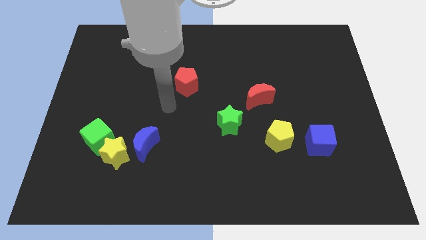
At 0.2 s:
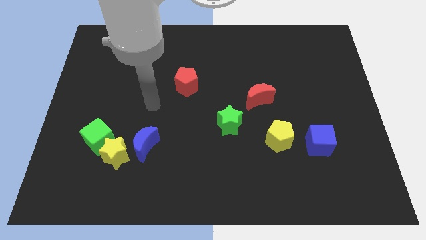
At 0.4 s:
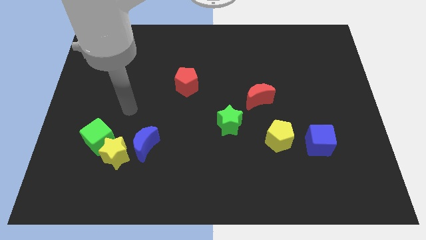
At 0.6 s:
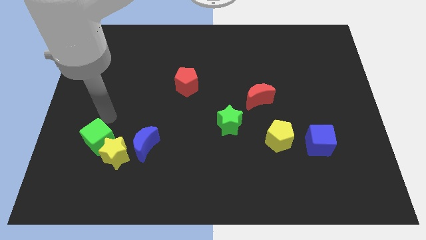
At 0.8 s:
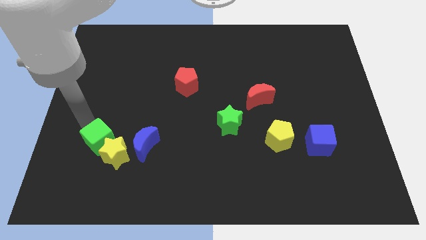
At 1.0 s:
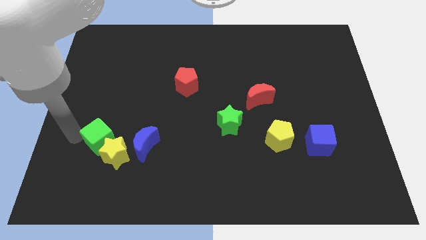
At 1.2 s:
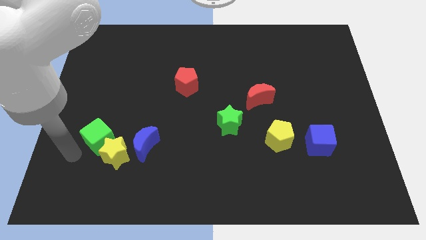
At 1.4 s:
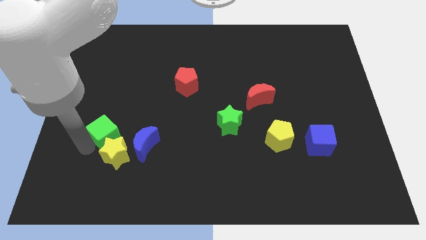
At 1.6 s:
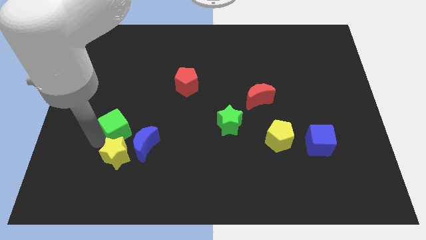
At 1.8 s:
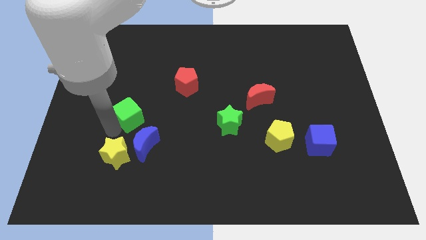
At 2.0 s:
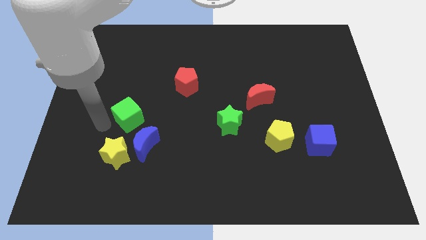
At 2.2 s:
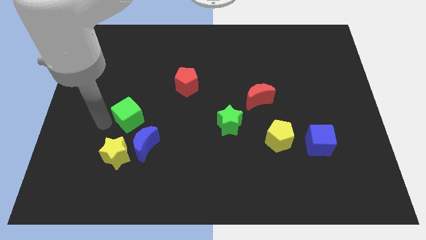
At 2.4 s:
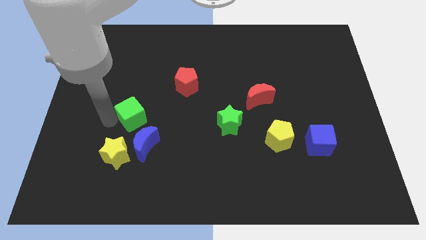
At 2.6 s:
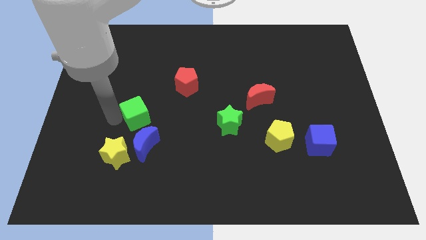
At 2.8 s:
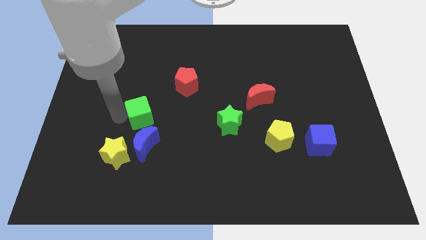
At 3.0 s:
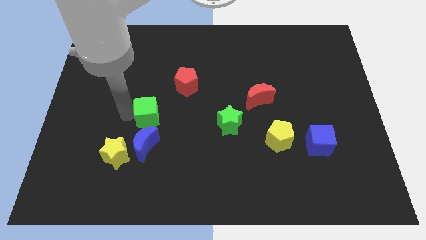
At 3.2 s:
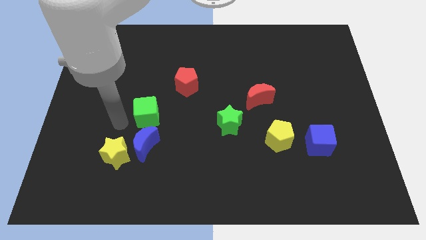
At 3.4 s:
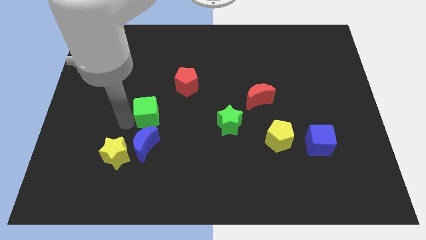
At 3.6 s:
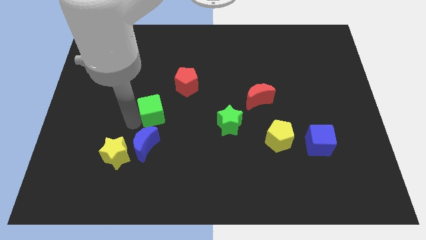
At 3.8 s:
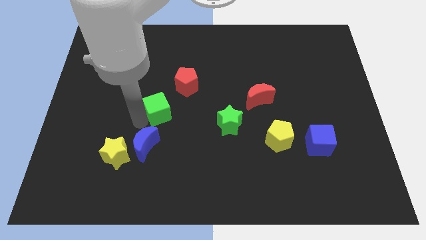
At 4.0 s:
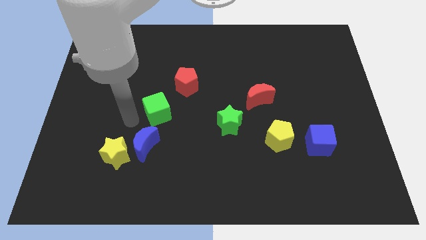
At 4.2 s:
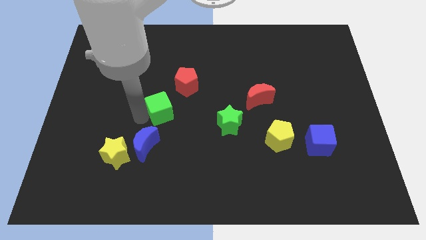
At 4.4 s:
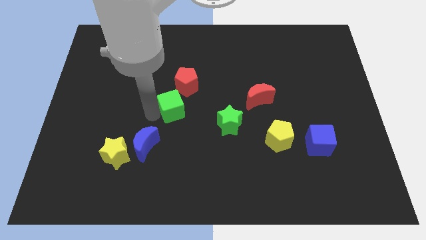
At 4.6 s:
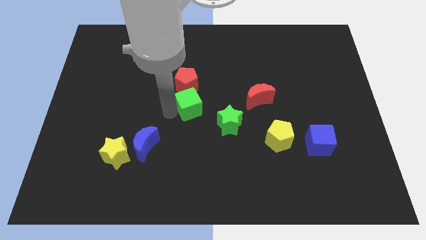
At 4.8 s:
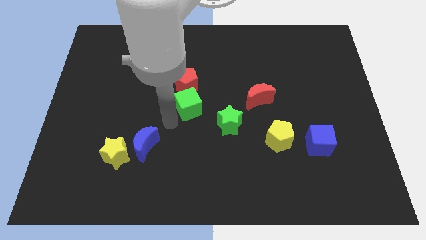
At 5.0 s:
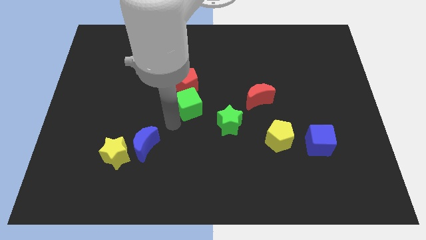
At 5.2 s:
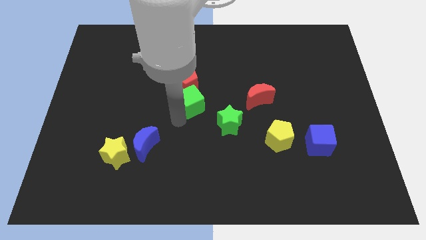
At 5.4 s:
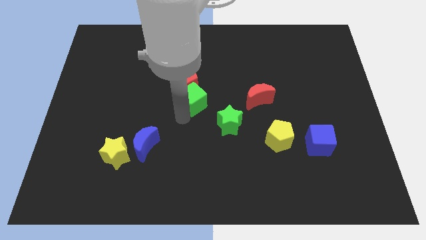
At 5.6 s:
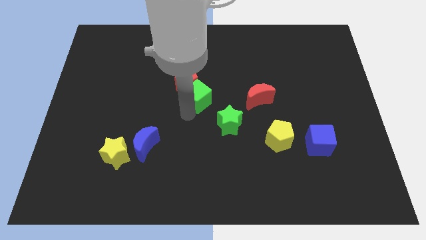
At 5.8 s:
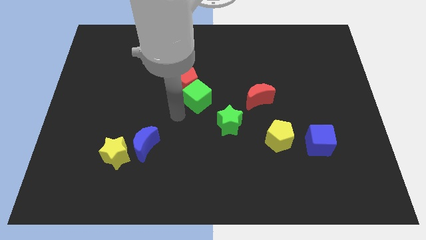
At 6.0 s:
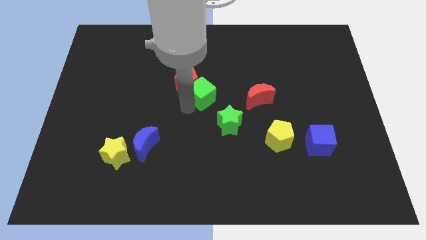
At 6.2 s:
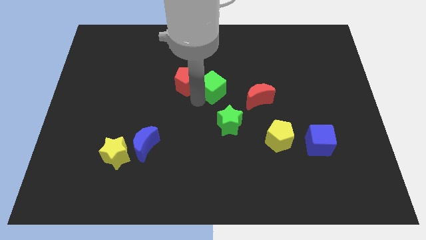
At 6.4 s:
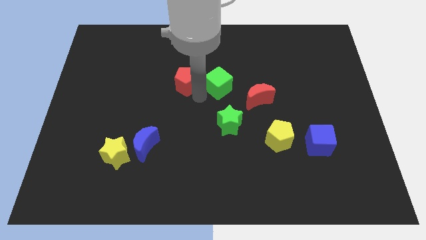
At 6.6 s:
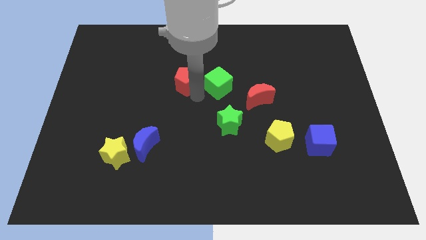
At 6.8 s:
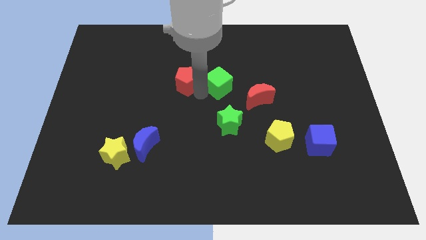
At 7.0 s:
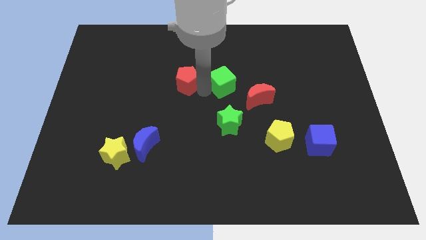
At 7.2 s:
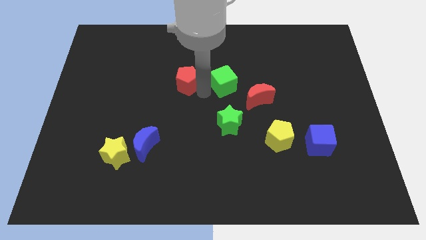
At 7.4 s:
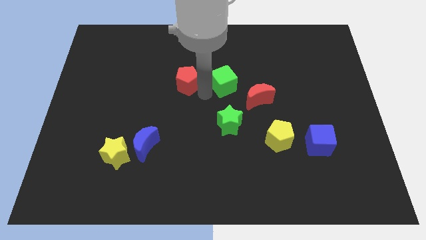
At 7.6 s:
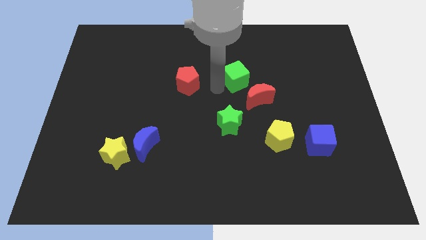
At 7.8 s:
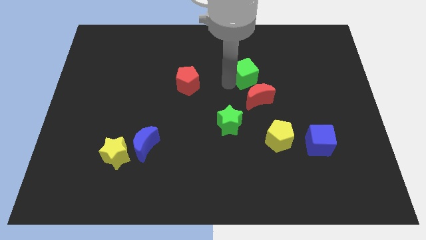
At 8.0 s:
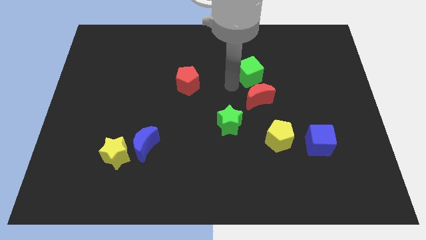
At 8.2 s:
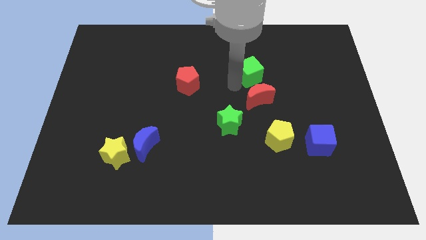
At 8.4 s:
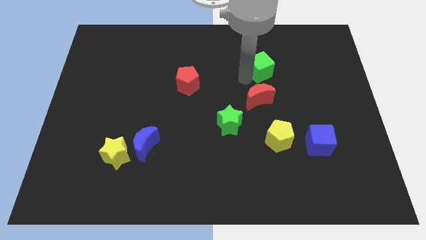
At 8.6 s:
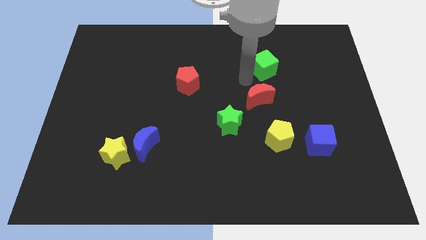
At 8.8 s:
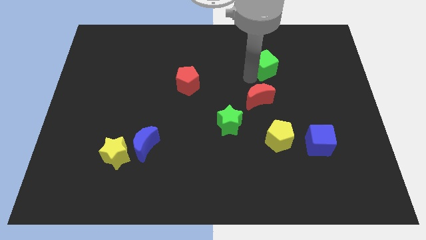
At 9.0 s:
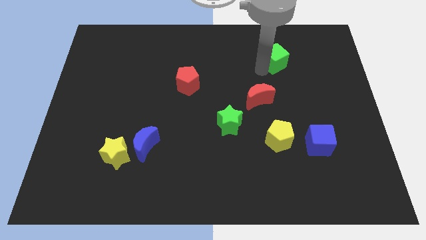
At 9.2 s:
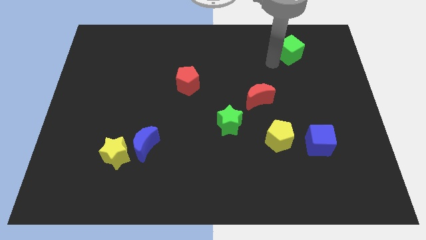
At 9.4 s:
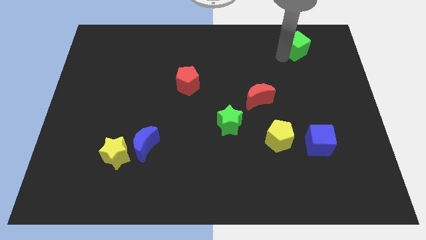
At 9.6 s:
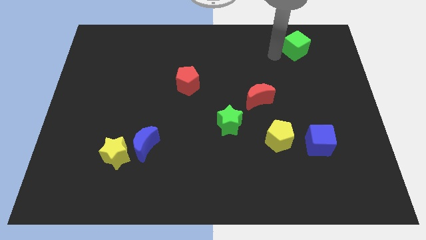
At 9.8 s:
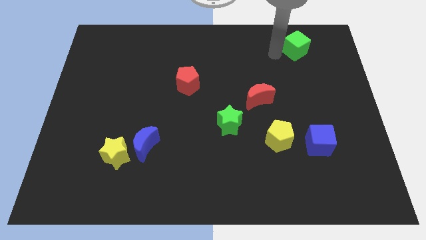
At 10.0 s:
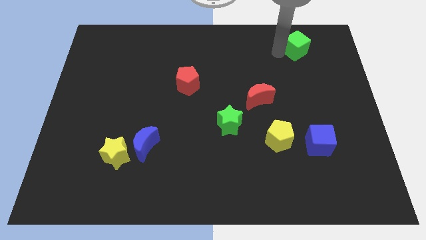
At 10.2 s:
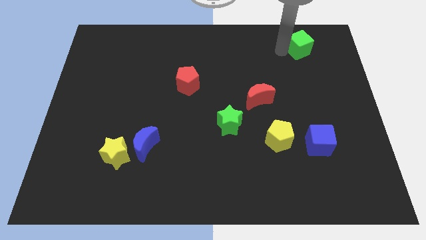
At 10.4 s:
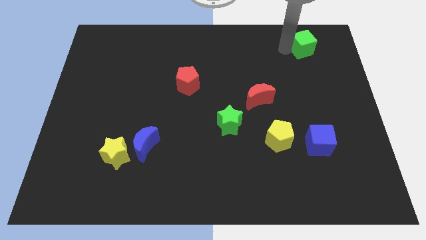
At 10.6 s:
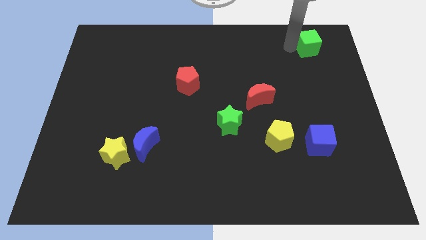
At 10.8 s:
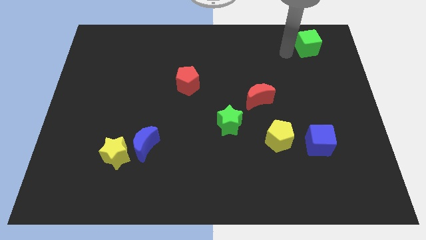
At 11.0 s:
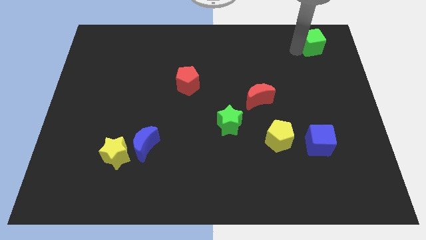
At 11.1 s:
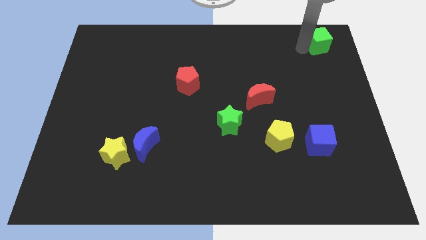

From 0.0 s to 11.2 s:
slide the green cube to the upper right corner

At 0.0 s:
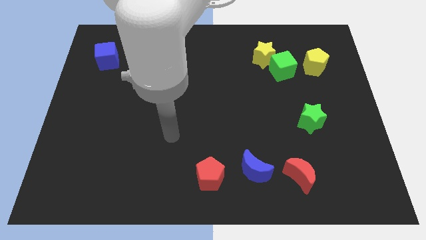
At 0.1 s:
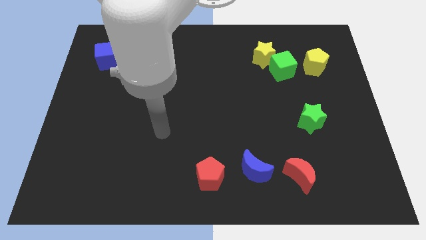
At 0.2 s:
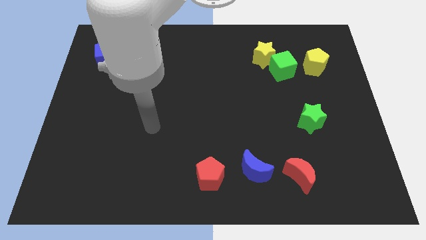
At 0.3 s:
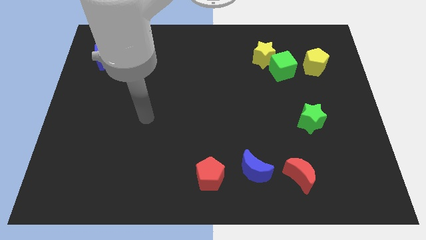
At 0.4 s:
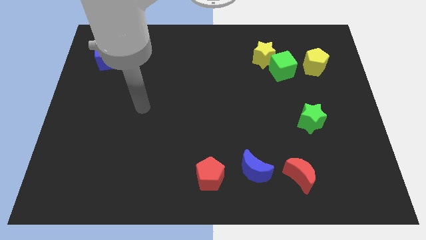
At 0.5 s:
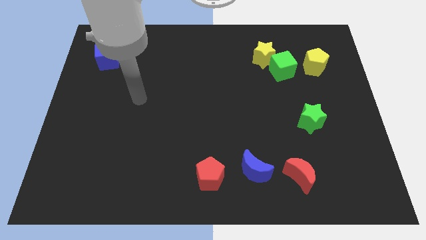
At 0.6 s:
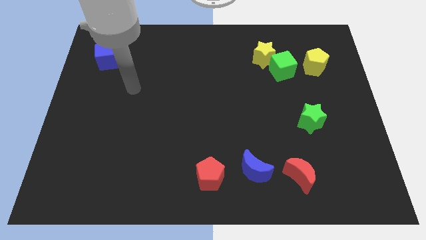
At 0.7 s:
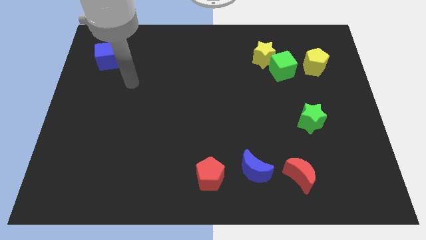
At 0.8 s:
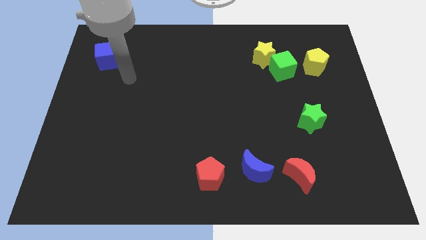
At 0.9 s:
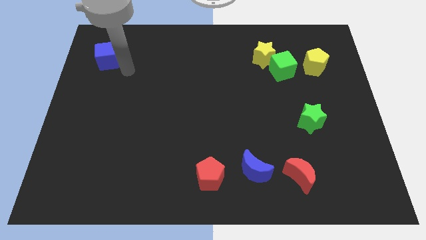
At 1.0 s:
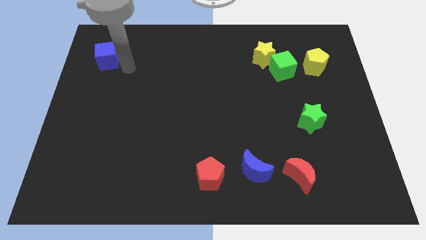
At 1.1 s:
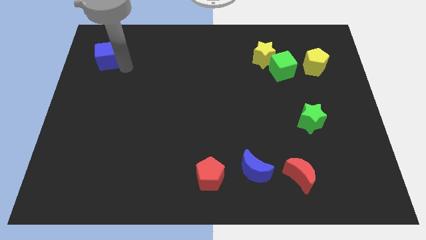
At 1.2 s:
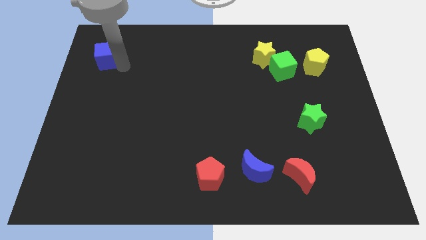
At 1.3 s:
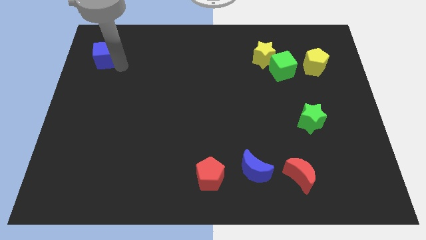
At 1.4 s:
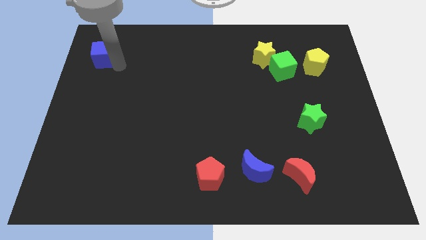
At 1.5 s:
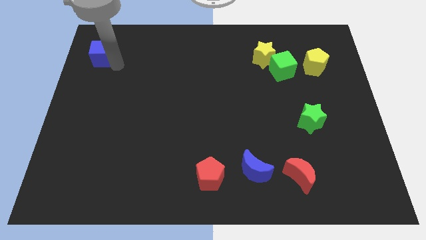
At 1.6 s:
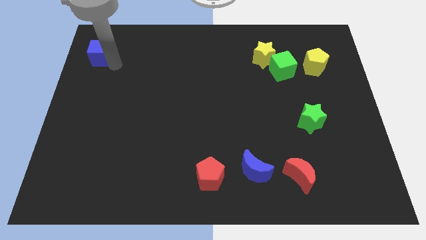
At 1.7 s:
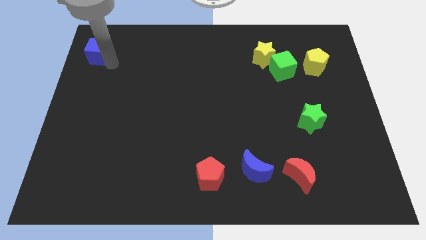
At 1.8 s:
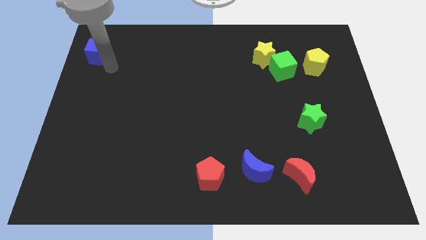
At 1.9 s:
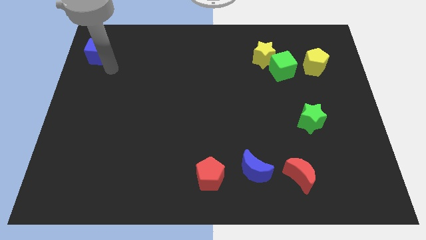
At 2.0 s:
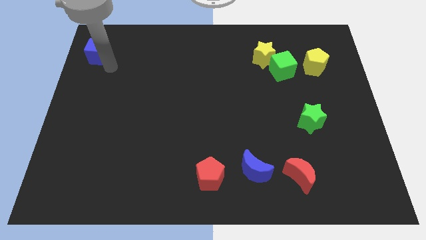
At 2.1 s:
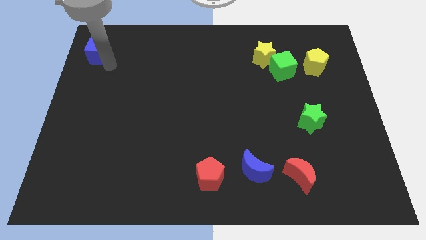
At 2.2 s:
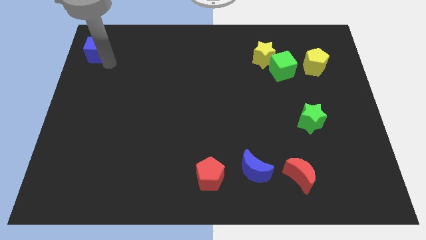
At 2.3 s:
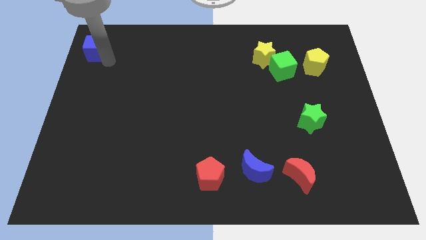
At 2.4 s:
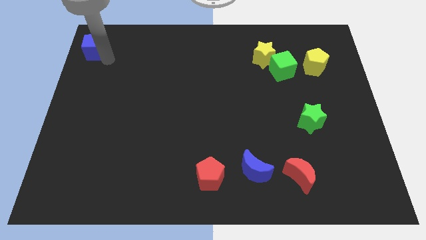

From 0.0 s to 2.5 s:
move the blue cube to the top left
